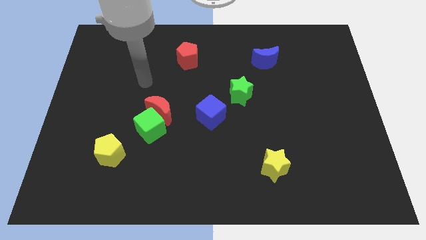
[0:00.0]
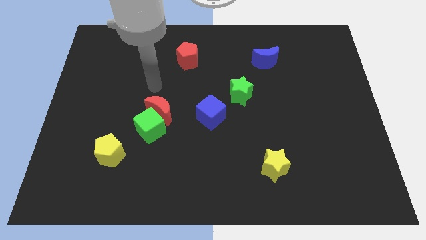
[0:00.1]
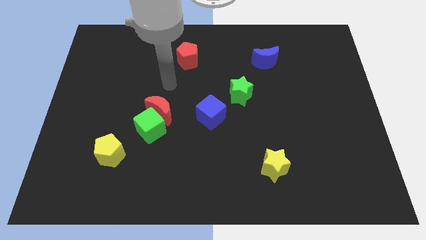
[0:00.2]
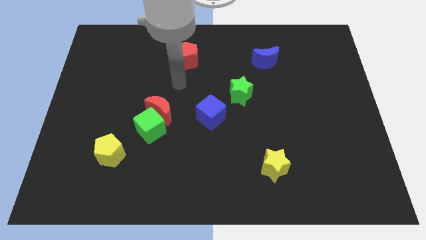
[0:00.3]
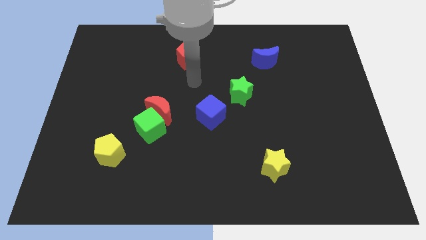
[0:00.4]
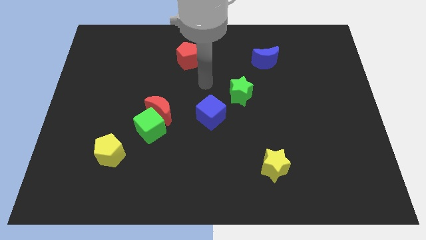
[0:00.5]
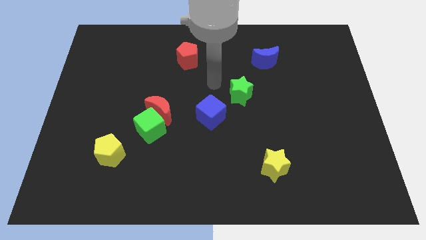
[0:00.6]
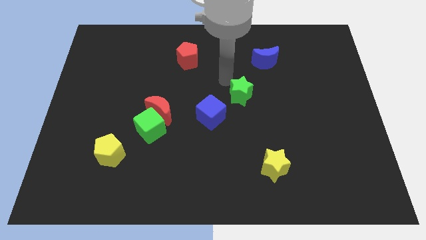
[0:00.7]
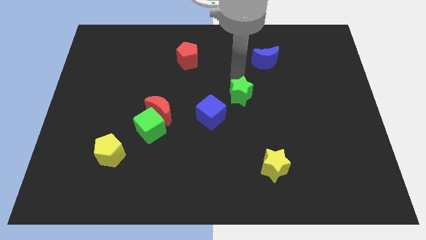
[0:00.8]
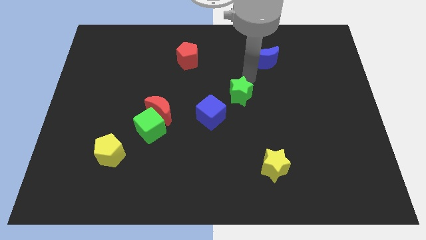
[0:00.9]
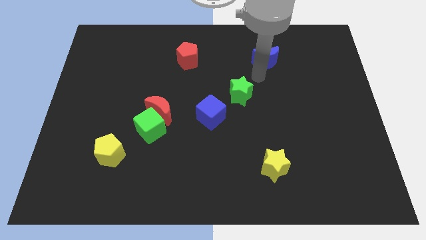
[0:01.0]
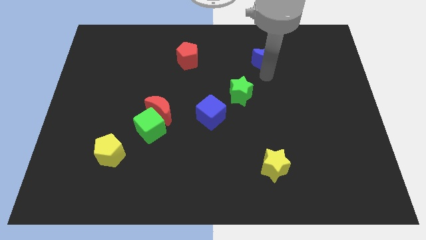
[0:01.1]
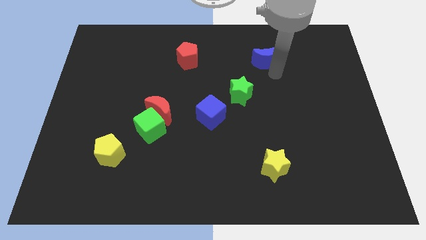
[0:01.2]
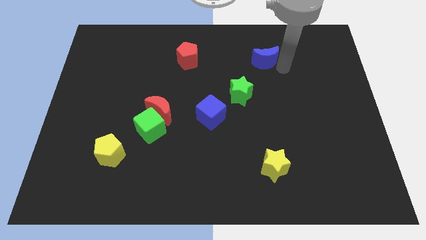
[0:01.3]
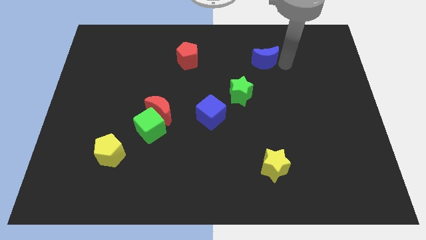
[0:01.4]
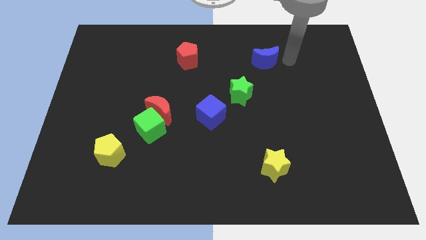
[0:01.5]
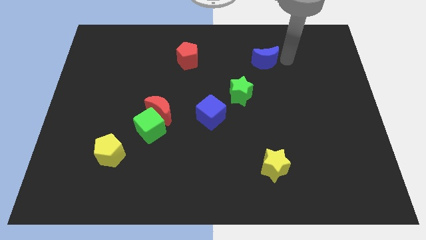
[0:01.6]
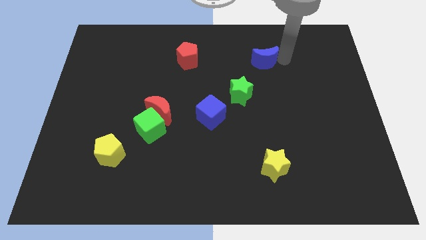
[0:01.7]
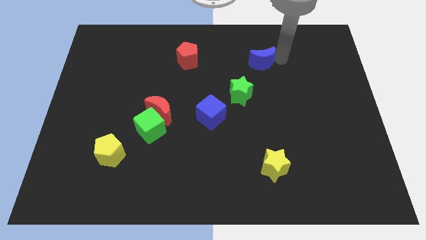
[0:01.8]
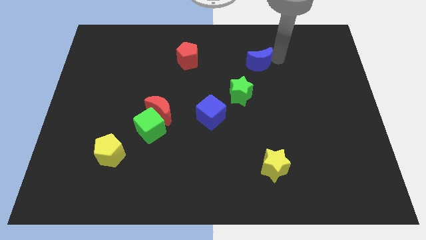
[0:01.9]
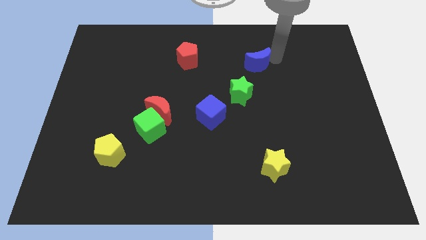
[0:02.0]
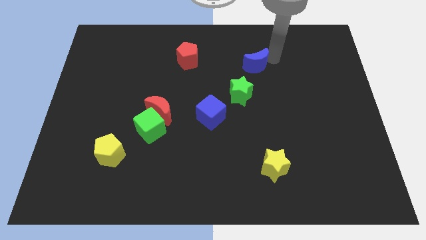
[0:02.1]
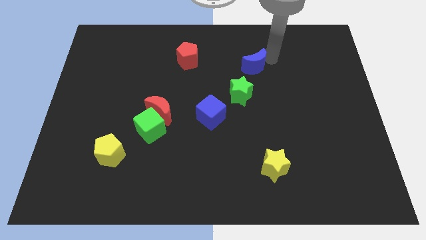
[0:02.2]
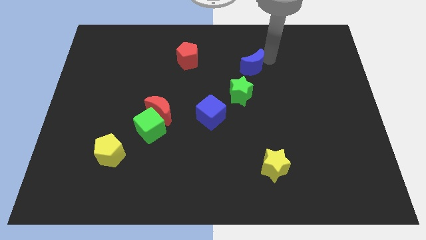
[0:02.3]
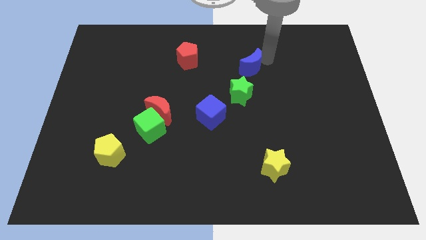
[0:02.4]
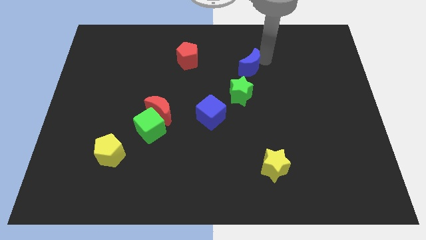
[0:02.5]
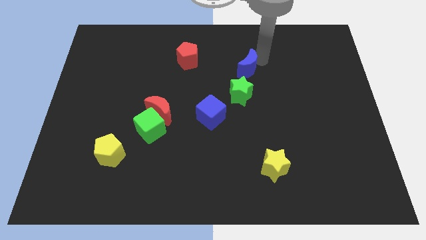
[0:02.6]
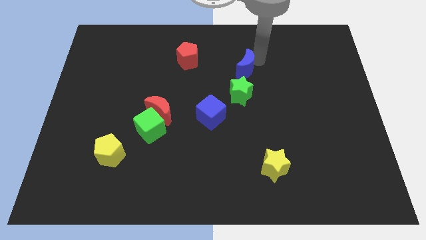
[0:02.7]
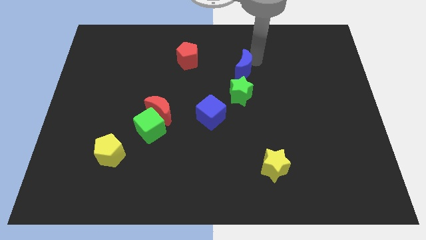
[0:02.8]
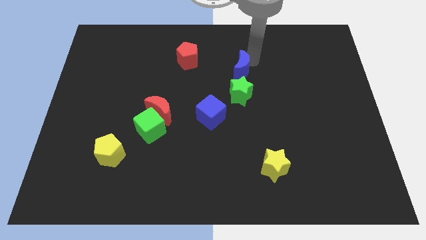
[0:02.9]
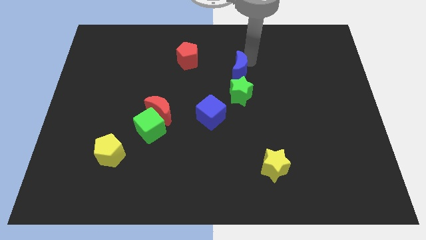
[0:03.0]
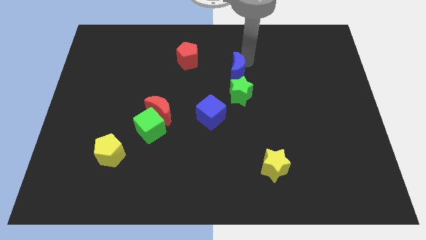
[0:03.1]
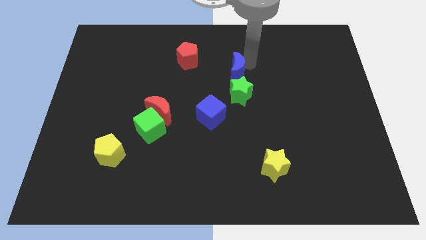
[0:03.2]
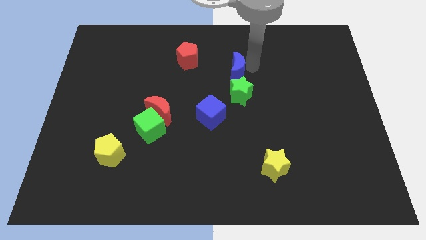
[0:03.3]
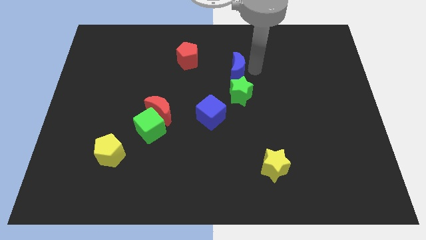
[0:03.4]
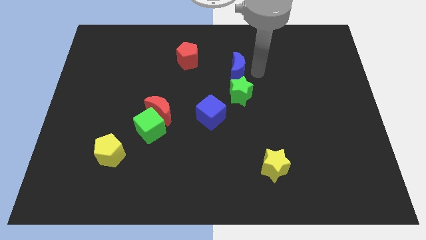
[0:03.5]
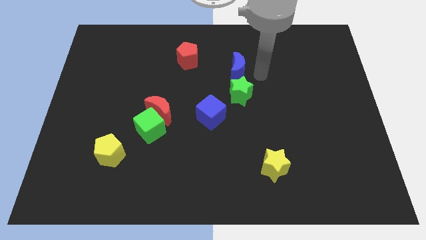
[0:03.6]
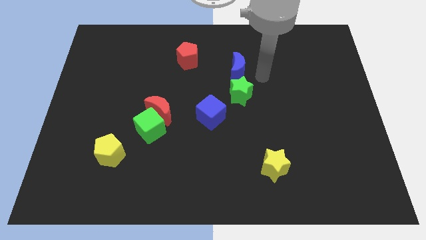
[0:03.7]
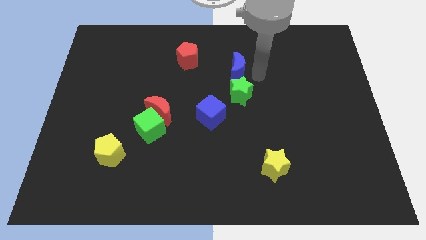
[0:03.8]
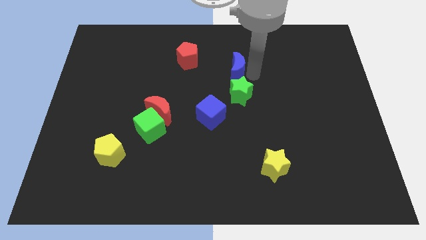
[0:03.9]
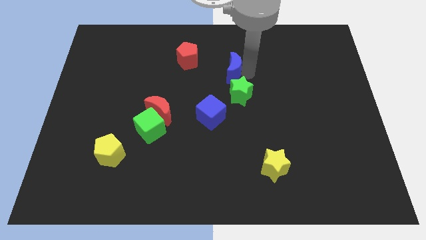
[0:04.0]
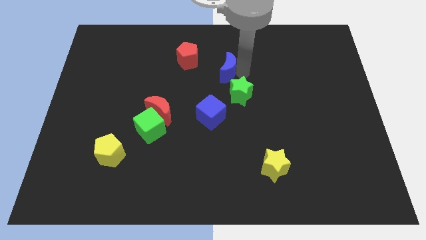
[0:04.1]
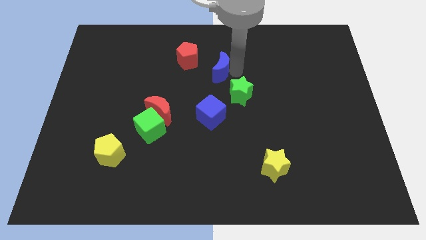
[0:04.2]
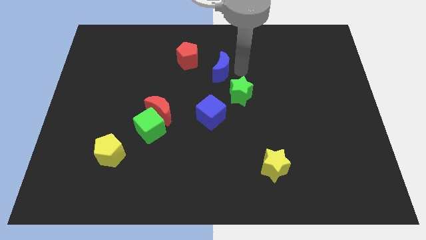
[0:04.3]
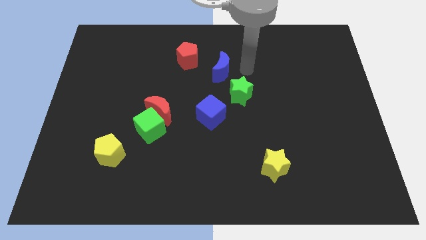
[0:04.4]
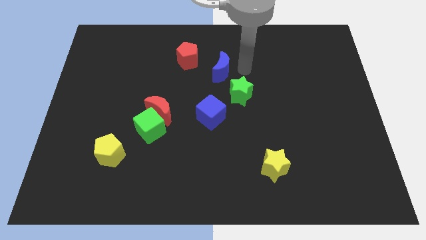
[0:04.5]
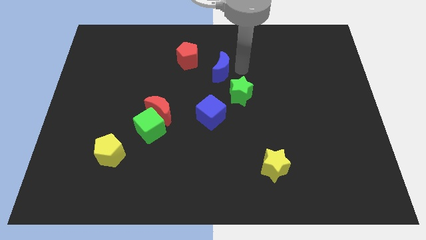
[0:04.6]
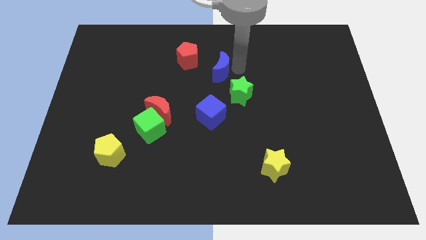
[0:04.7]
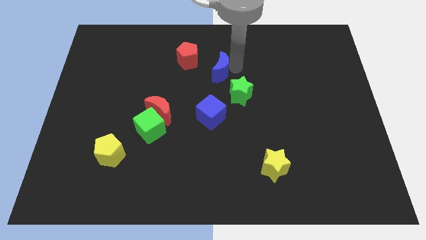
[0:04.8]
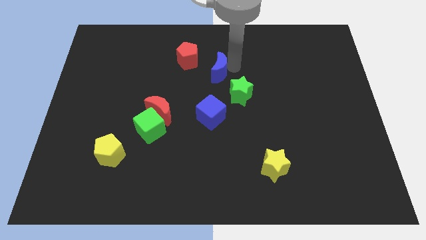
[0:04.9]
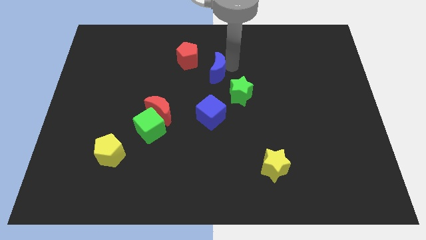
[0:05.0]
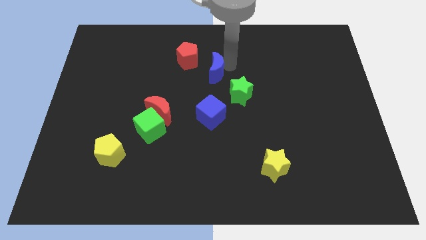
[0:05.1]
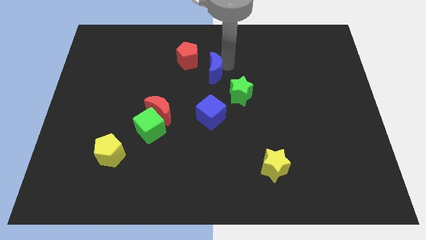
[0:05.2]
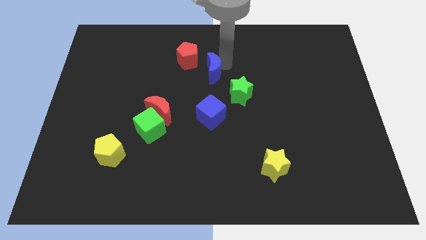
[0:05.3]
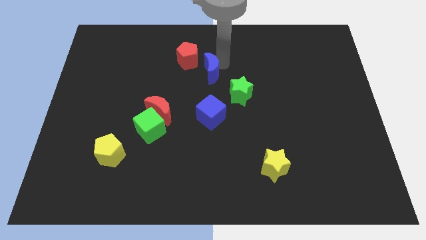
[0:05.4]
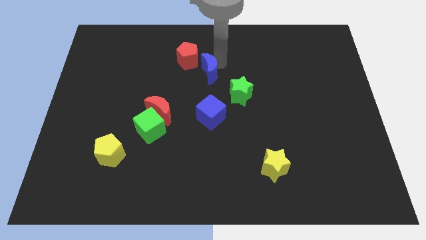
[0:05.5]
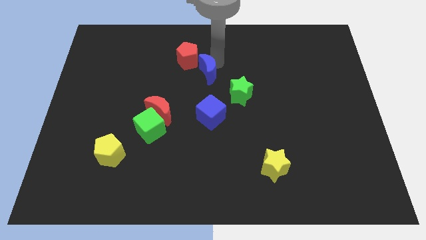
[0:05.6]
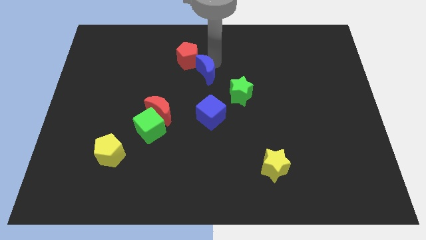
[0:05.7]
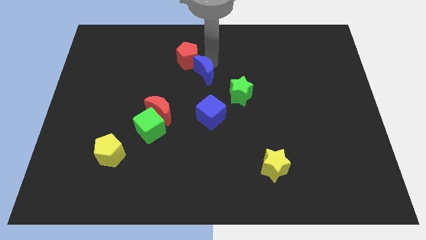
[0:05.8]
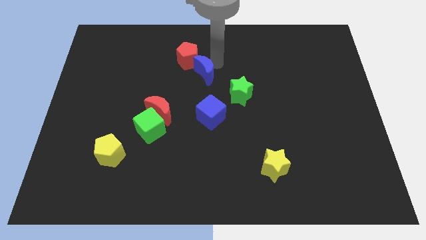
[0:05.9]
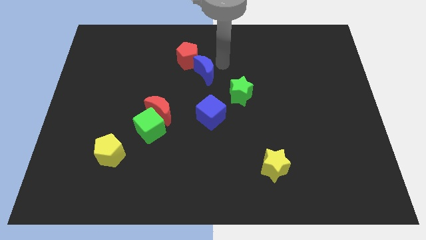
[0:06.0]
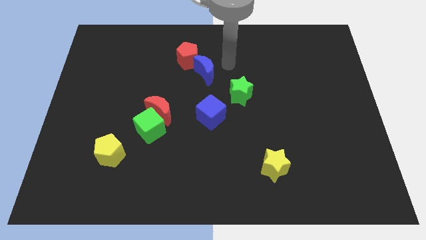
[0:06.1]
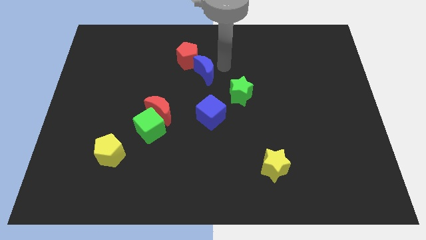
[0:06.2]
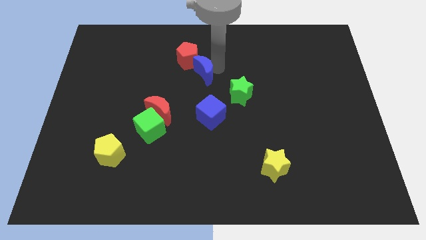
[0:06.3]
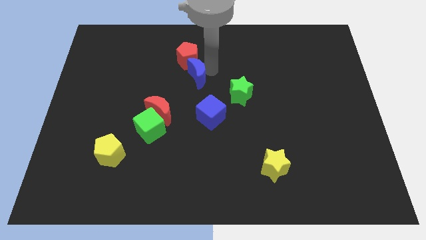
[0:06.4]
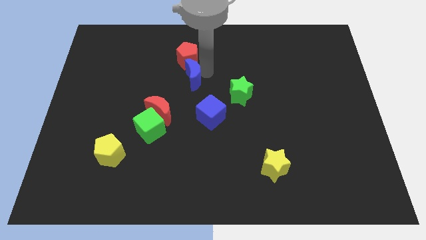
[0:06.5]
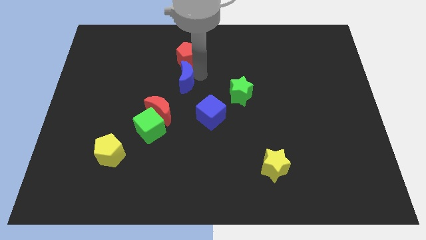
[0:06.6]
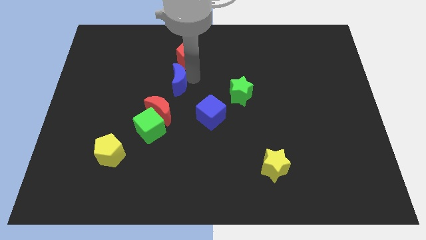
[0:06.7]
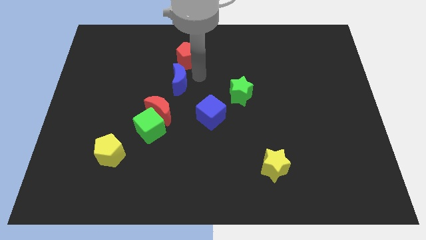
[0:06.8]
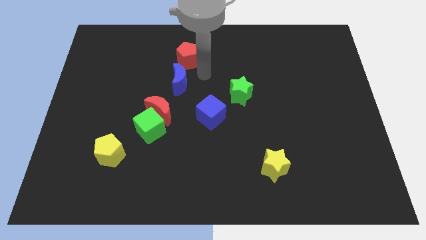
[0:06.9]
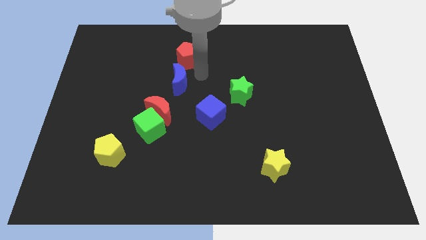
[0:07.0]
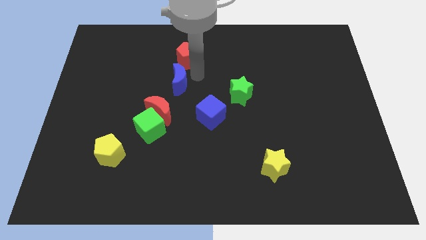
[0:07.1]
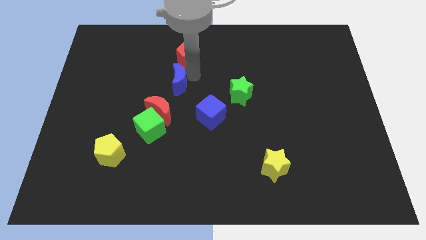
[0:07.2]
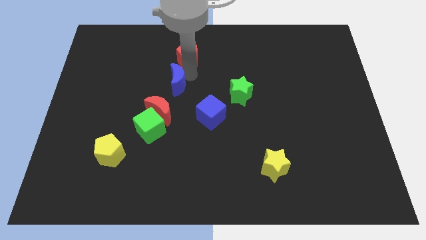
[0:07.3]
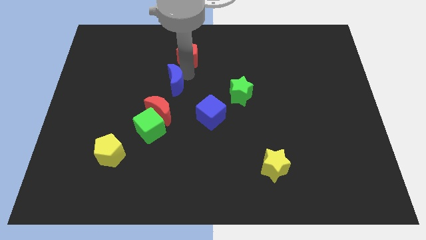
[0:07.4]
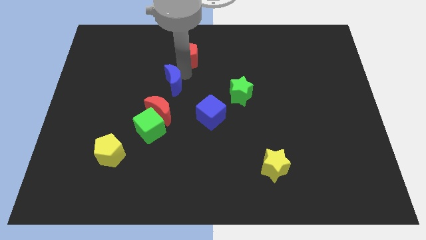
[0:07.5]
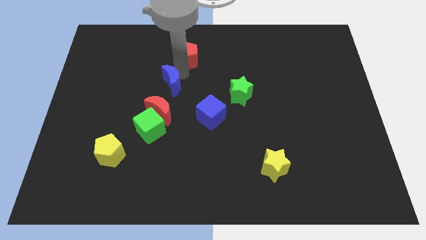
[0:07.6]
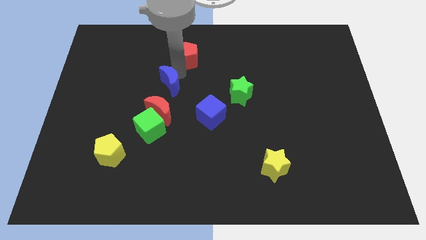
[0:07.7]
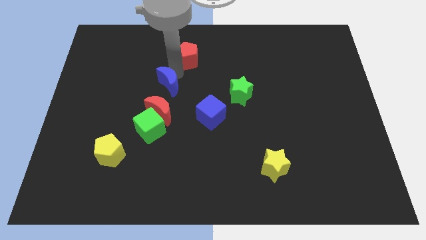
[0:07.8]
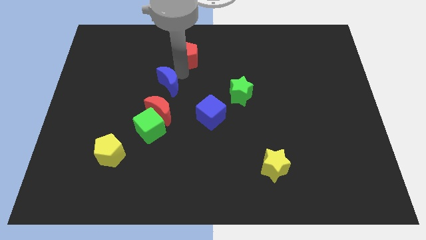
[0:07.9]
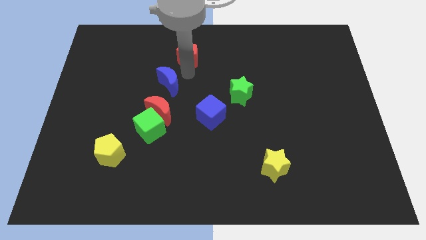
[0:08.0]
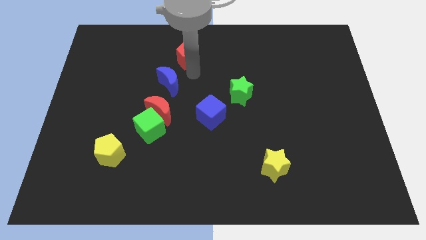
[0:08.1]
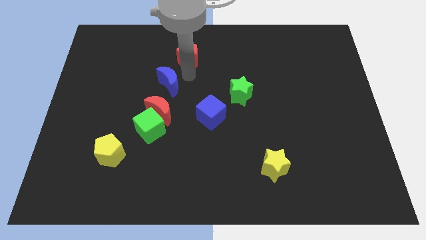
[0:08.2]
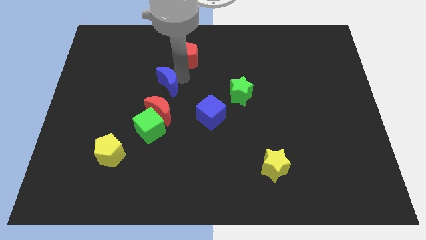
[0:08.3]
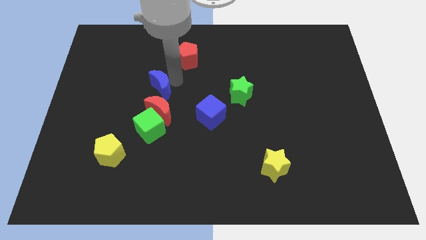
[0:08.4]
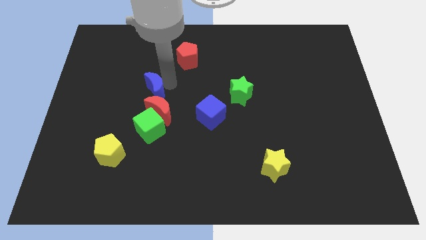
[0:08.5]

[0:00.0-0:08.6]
put the blue moon diagonally up and to the left of the red moon

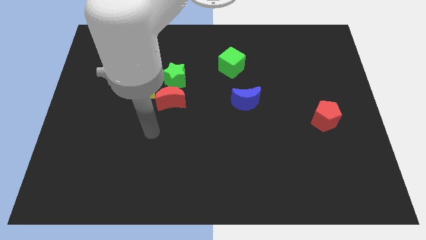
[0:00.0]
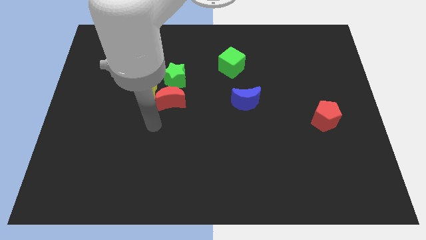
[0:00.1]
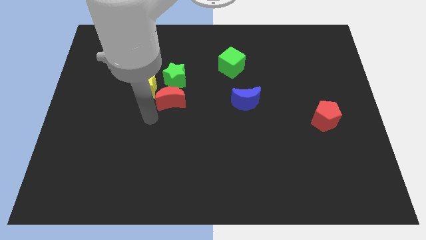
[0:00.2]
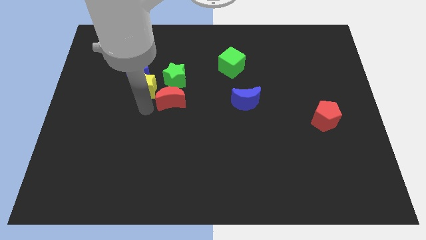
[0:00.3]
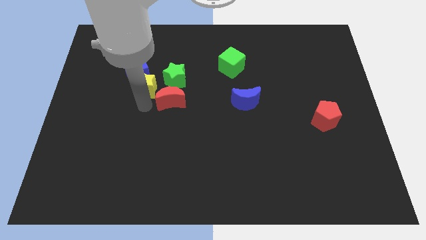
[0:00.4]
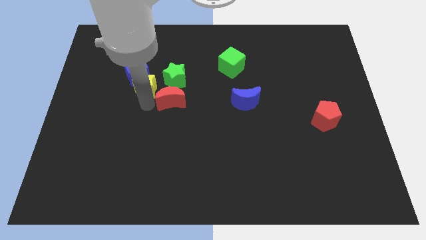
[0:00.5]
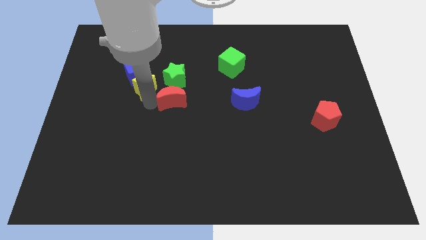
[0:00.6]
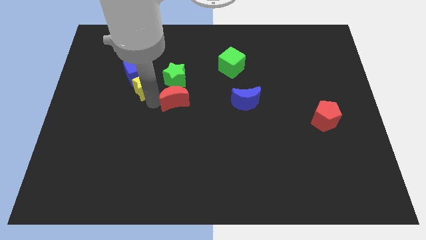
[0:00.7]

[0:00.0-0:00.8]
slide the red moon to the bottom right side of the green star
